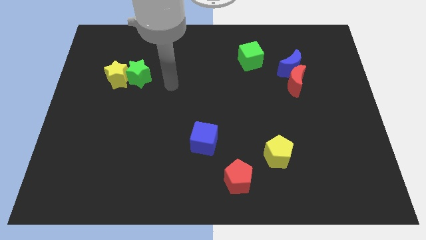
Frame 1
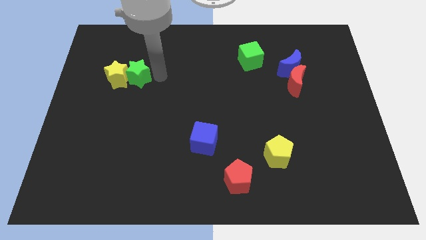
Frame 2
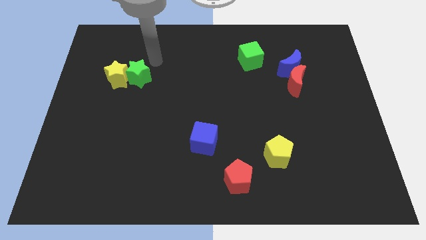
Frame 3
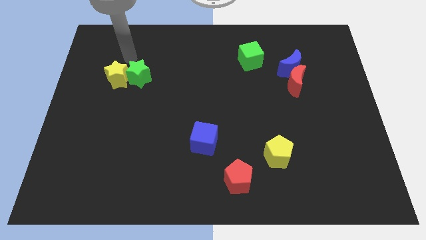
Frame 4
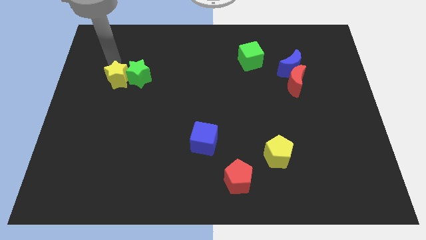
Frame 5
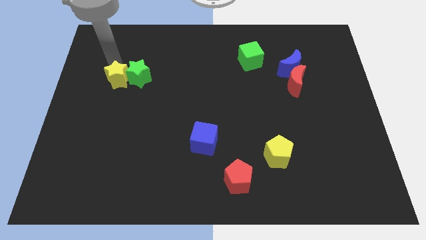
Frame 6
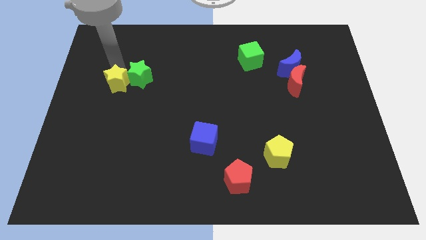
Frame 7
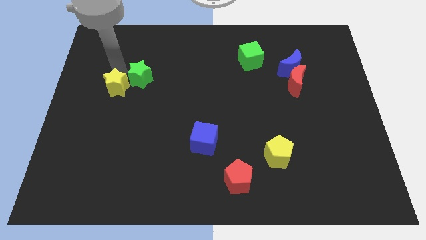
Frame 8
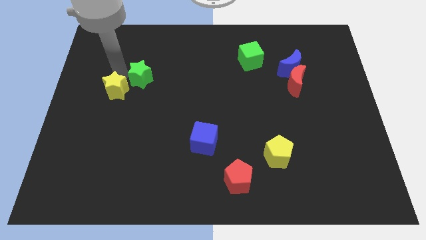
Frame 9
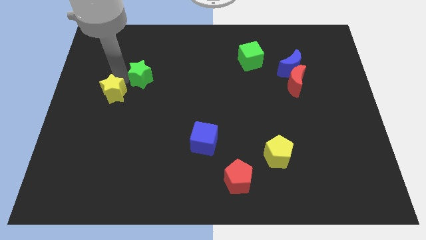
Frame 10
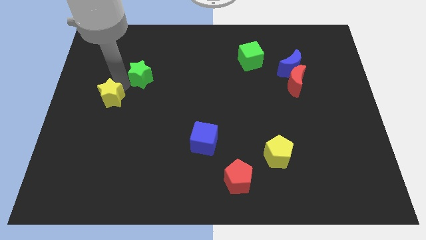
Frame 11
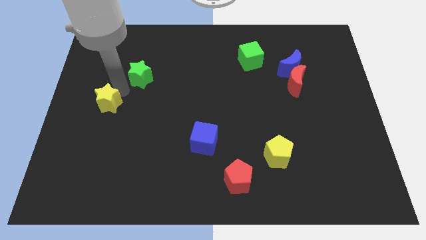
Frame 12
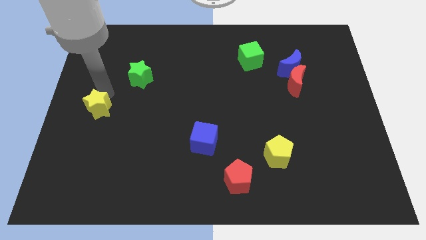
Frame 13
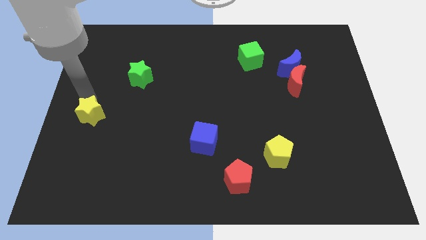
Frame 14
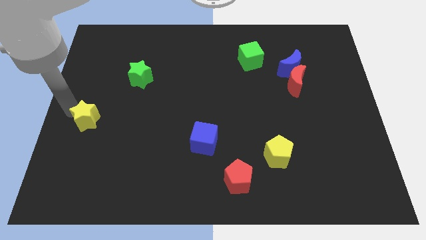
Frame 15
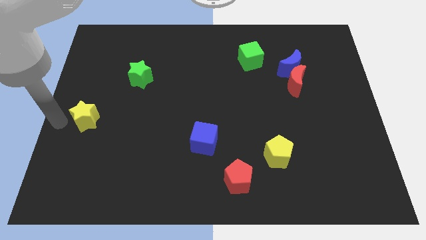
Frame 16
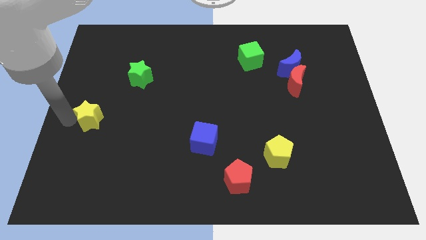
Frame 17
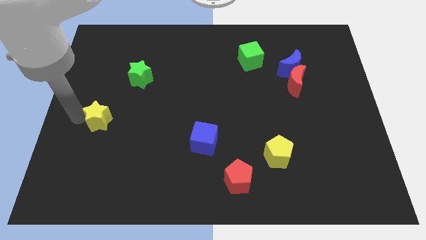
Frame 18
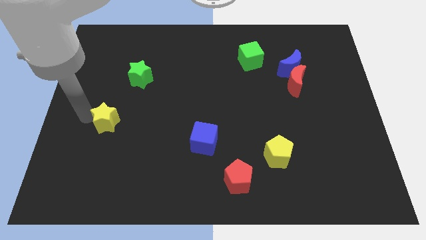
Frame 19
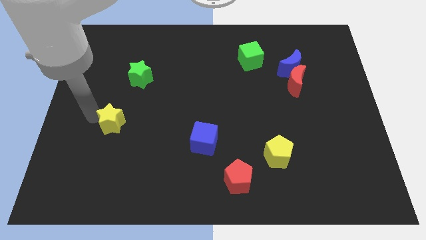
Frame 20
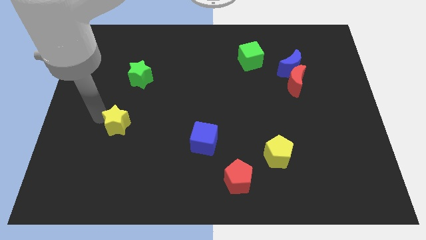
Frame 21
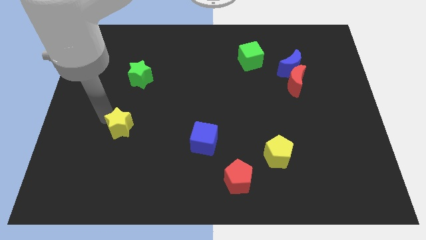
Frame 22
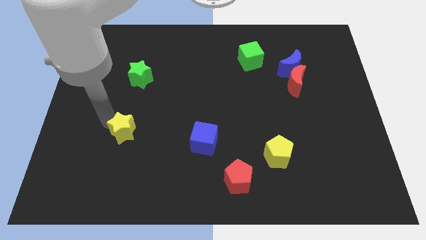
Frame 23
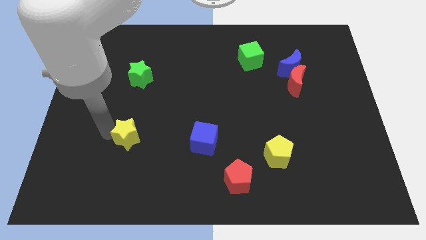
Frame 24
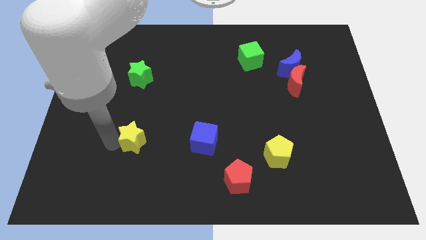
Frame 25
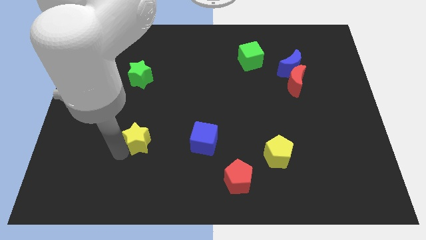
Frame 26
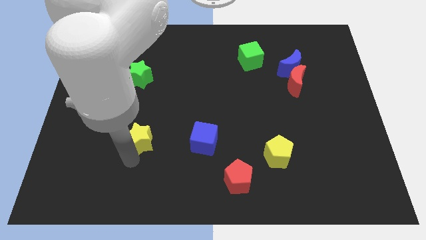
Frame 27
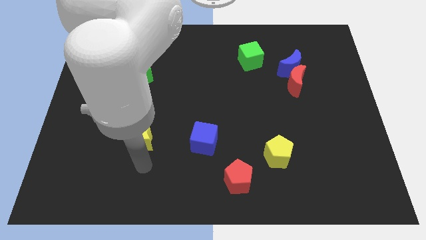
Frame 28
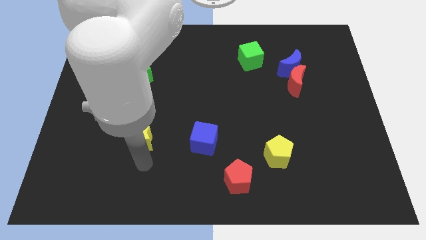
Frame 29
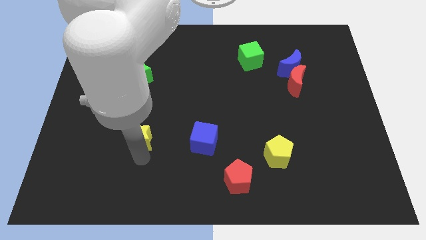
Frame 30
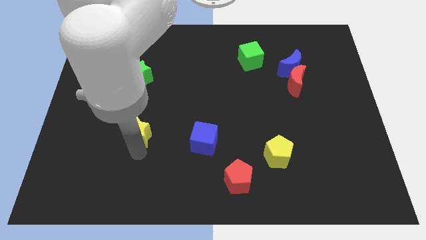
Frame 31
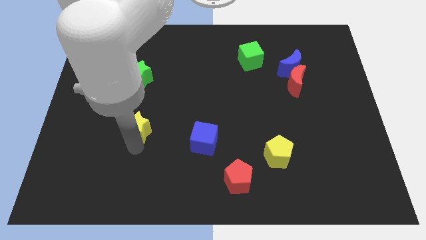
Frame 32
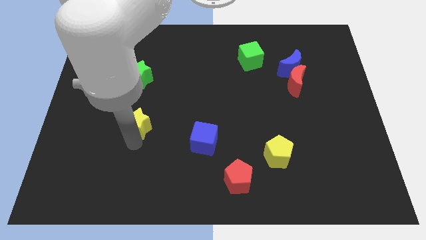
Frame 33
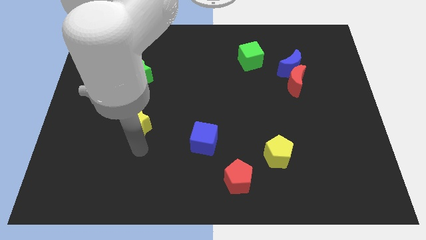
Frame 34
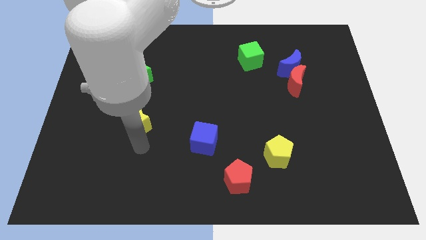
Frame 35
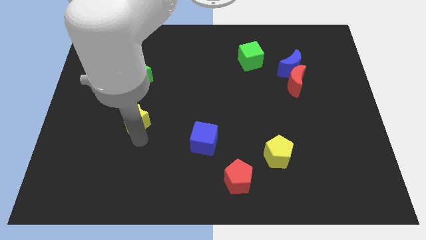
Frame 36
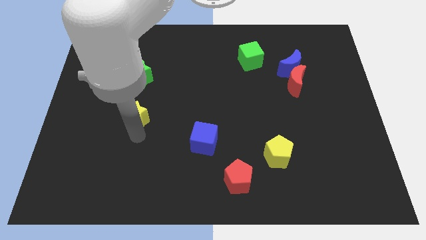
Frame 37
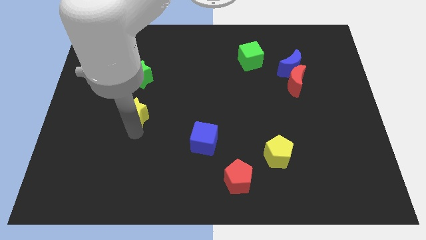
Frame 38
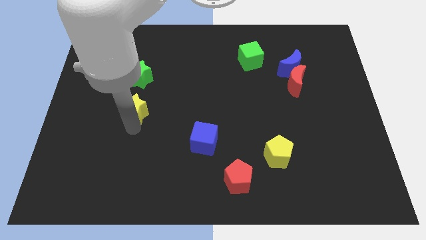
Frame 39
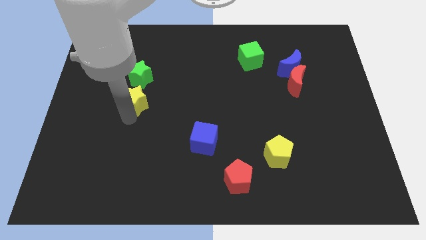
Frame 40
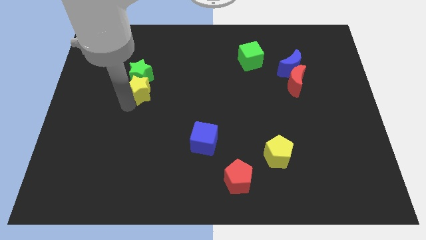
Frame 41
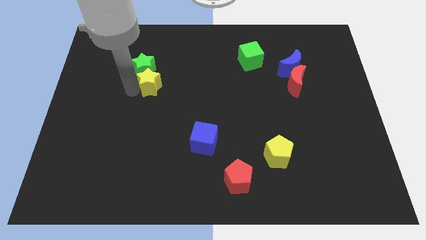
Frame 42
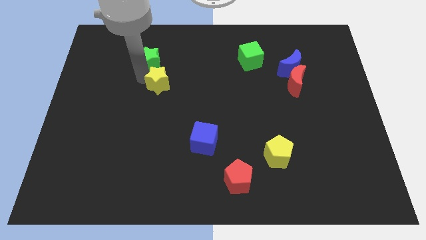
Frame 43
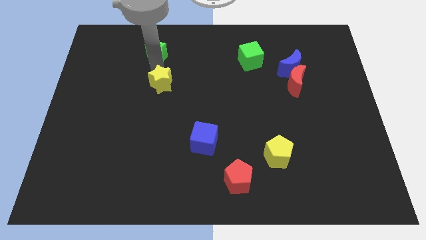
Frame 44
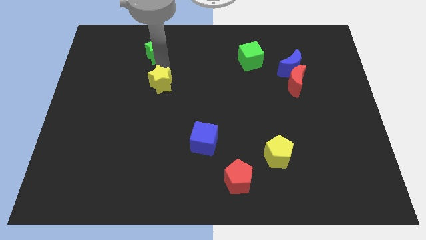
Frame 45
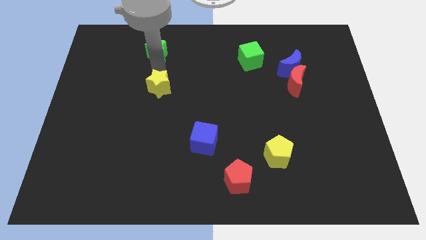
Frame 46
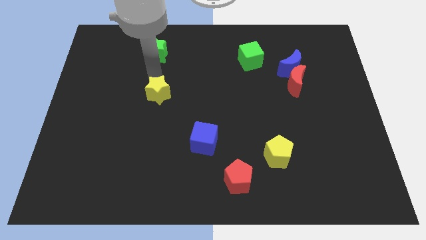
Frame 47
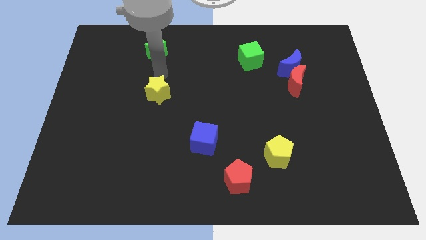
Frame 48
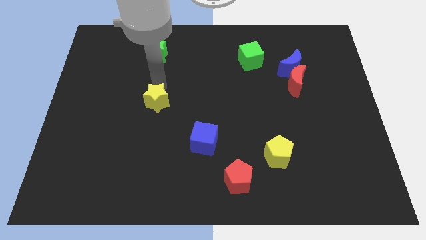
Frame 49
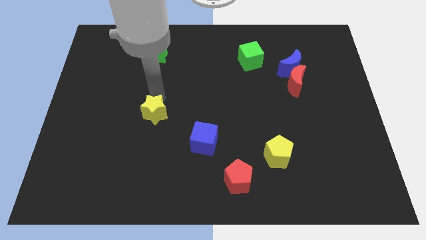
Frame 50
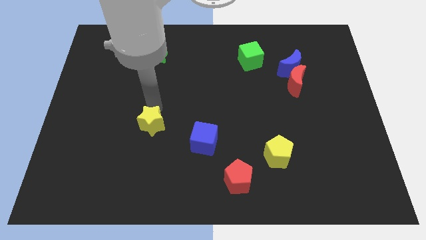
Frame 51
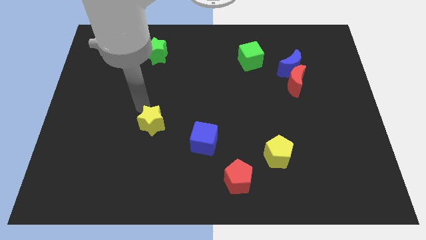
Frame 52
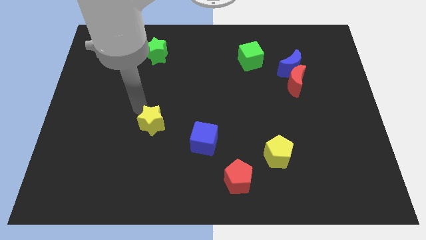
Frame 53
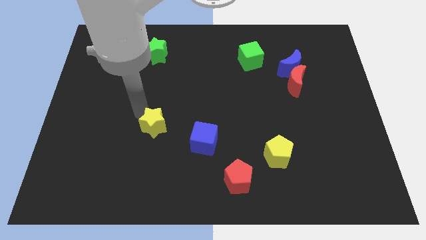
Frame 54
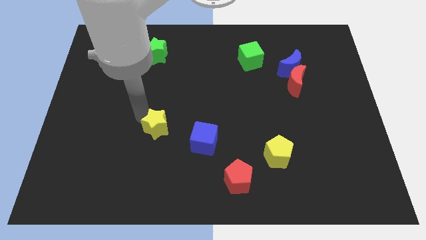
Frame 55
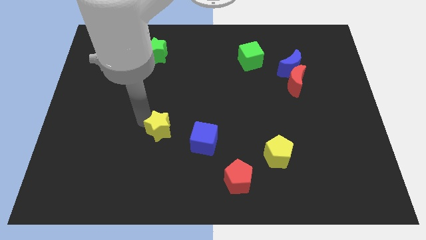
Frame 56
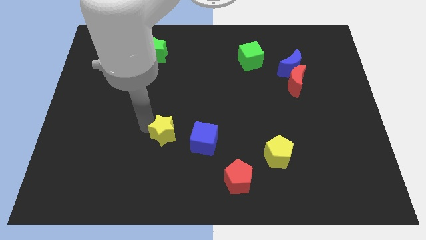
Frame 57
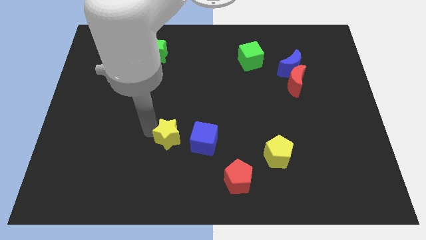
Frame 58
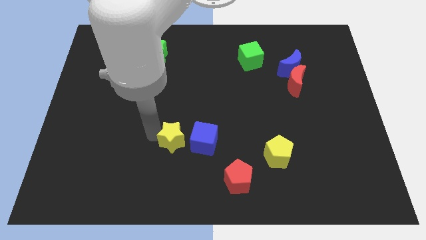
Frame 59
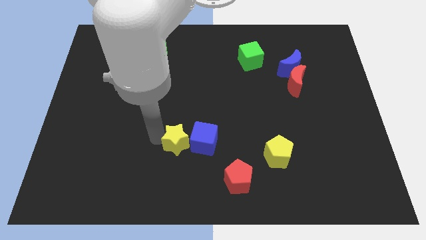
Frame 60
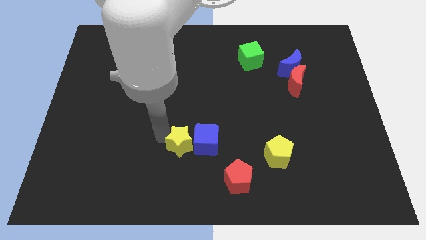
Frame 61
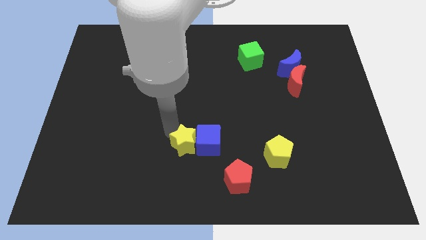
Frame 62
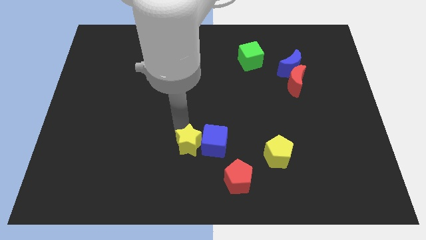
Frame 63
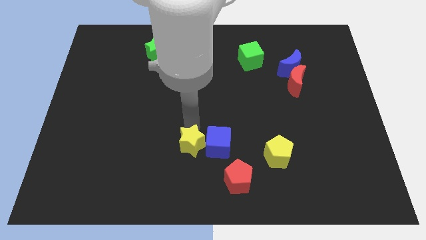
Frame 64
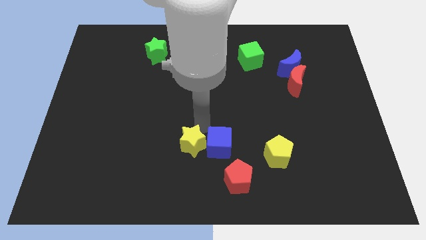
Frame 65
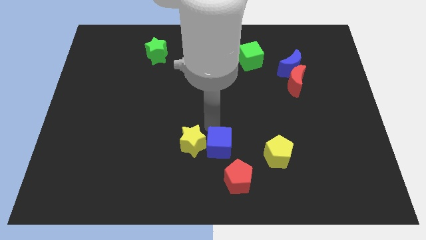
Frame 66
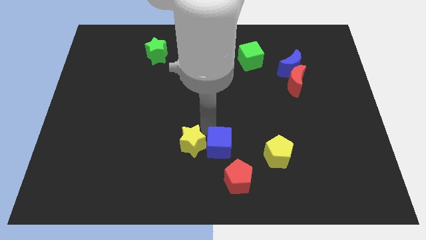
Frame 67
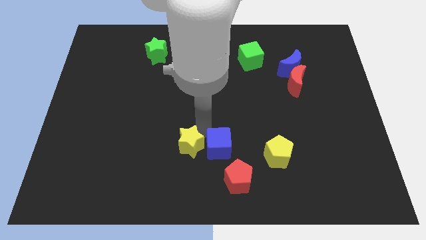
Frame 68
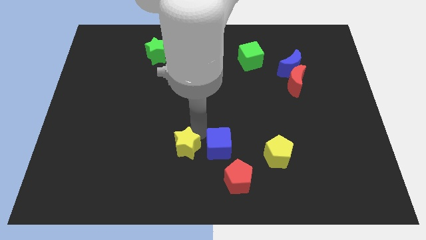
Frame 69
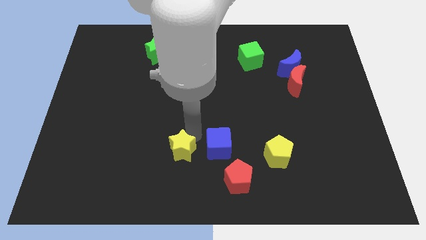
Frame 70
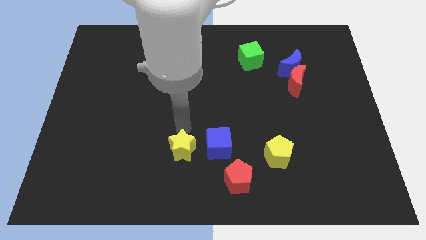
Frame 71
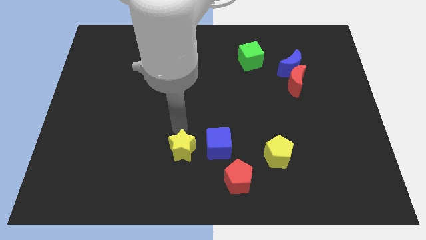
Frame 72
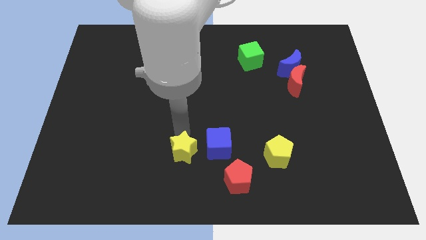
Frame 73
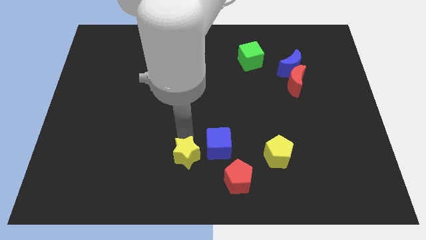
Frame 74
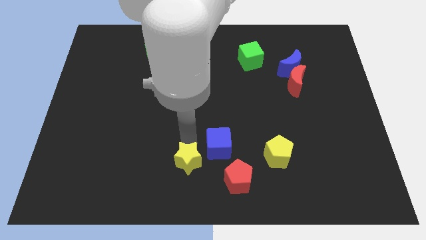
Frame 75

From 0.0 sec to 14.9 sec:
move the yellow star to the left side of the red pentagon
